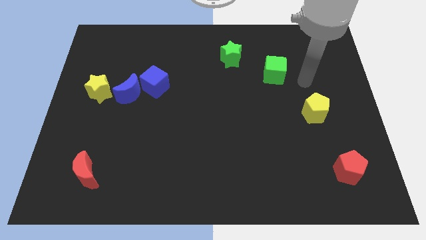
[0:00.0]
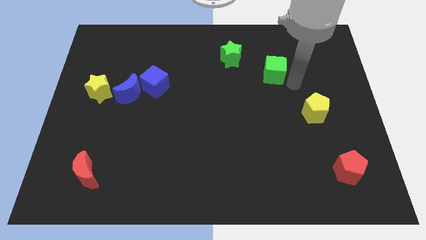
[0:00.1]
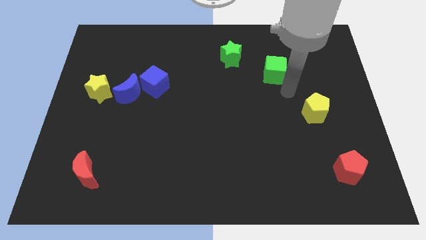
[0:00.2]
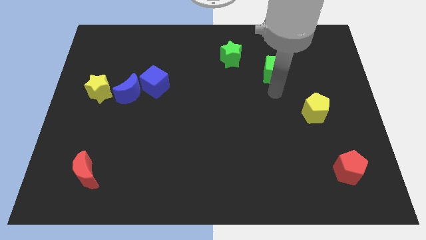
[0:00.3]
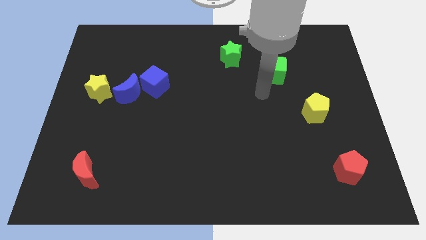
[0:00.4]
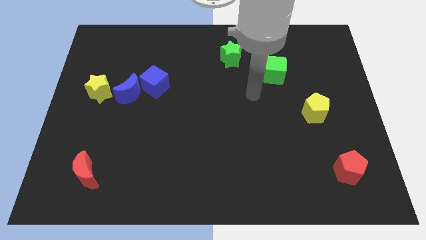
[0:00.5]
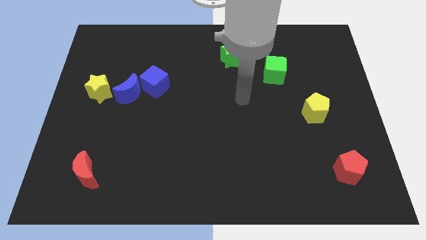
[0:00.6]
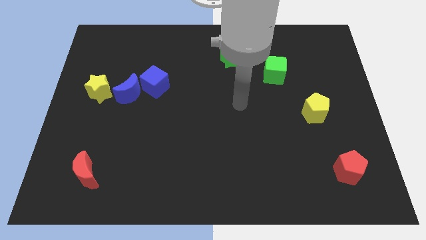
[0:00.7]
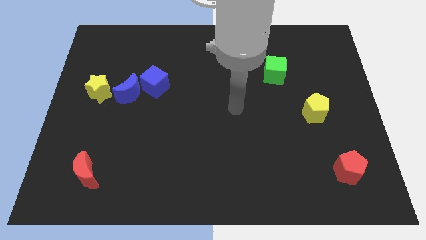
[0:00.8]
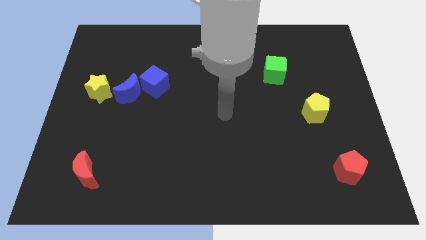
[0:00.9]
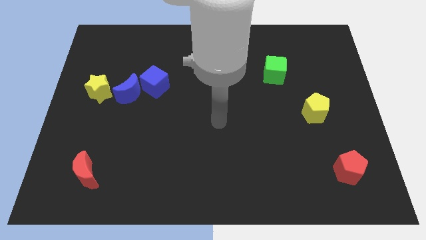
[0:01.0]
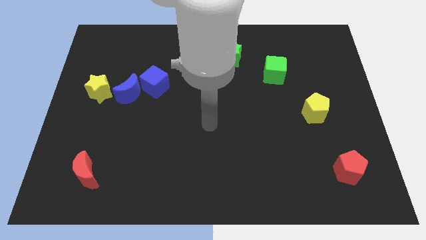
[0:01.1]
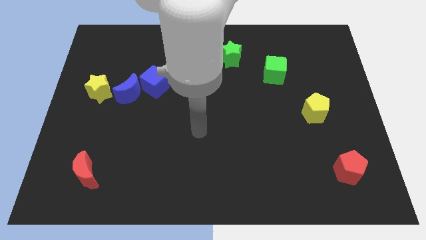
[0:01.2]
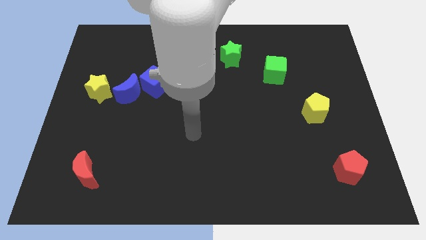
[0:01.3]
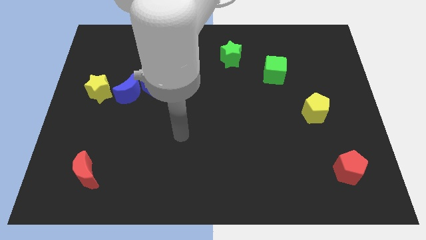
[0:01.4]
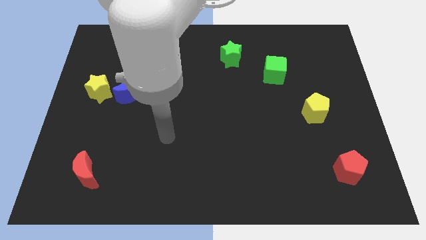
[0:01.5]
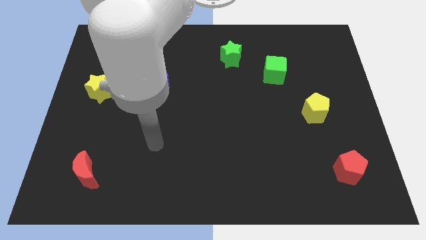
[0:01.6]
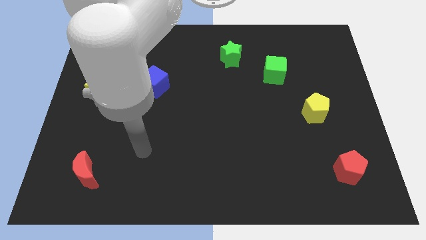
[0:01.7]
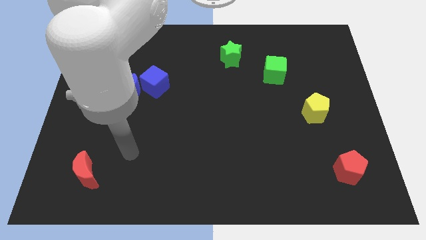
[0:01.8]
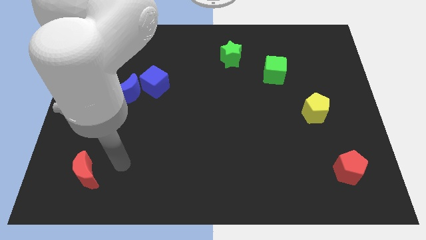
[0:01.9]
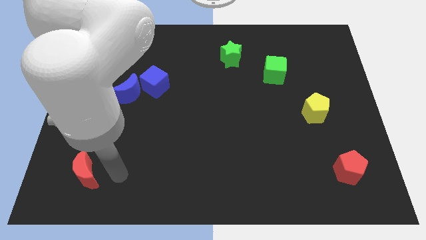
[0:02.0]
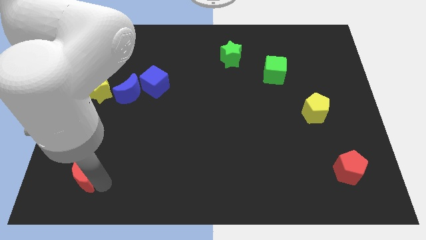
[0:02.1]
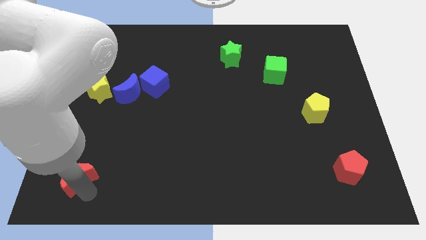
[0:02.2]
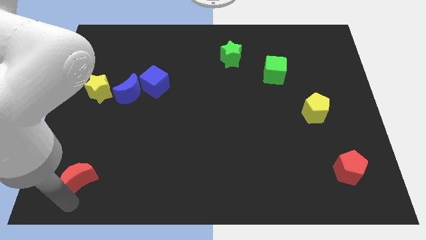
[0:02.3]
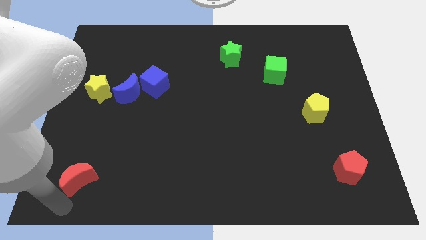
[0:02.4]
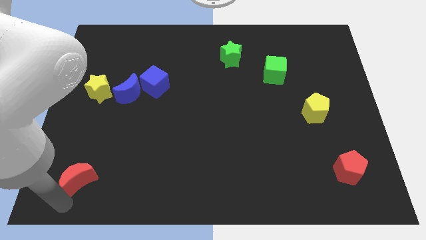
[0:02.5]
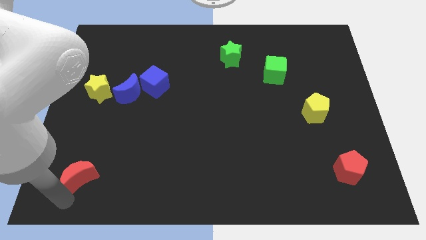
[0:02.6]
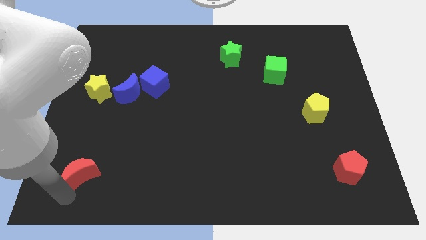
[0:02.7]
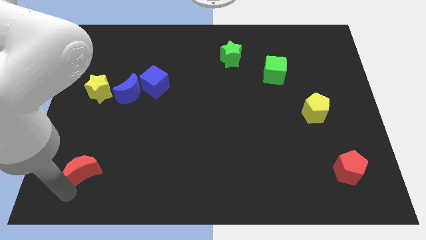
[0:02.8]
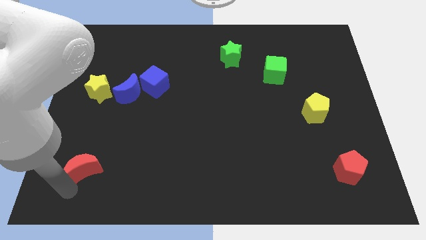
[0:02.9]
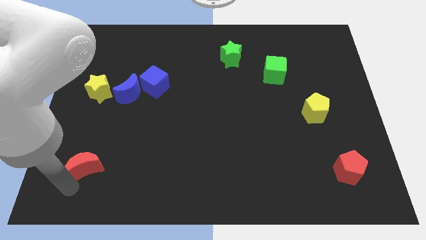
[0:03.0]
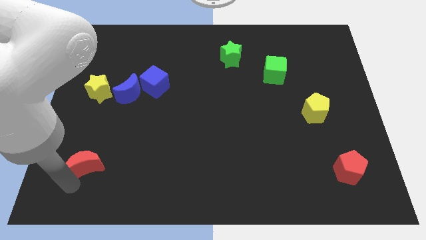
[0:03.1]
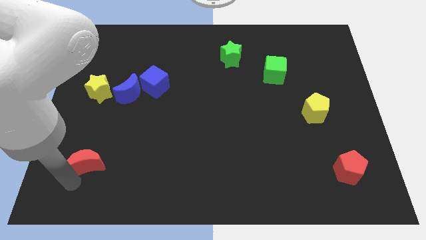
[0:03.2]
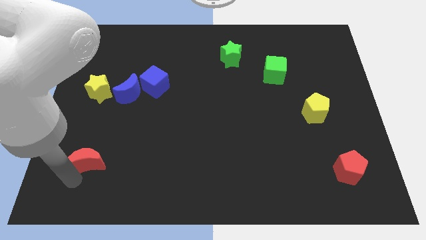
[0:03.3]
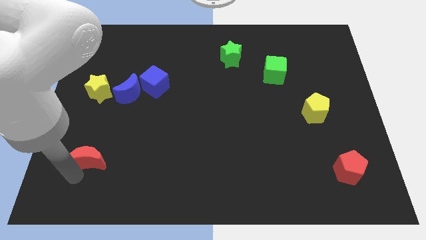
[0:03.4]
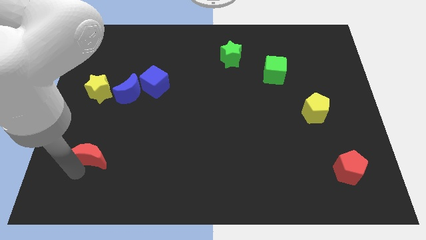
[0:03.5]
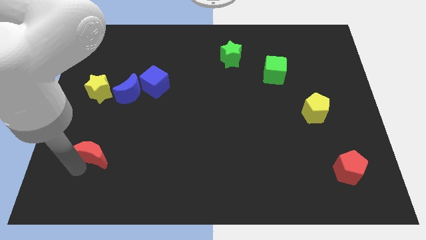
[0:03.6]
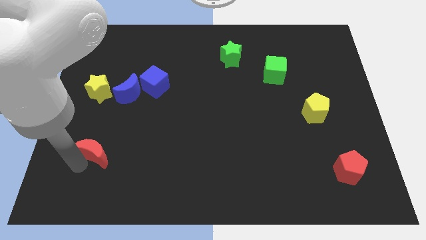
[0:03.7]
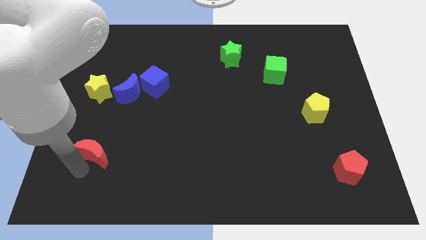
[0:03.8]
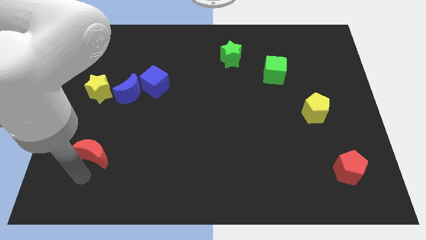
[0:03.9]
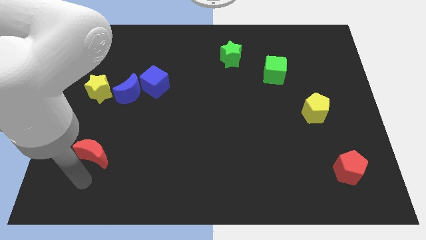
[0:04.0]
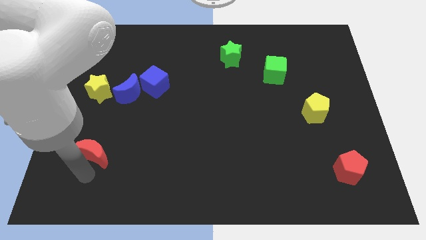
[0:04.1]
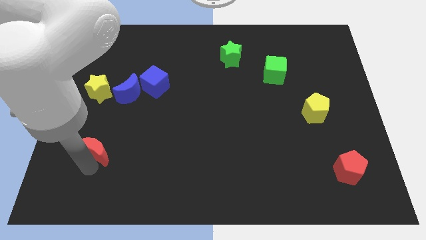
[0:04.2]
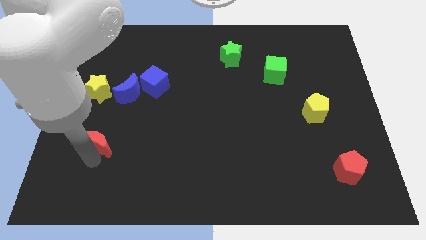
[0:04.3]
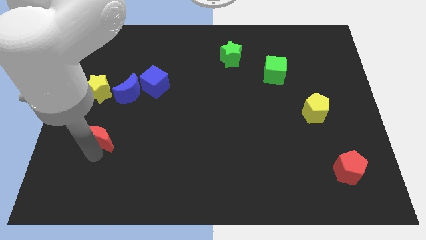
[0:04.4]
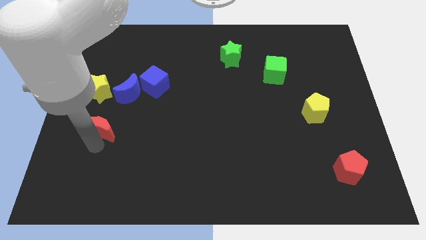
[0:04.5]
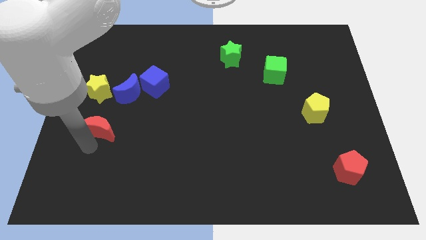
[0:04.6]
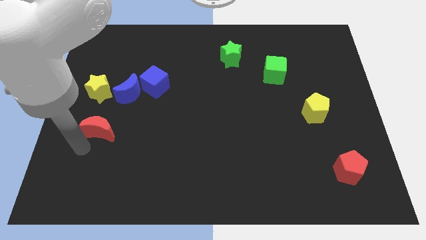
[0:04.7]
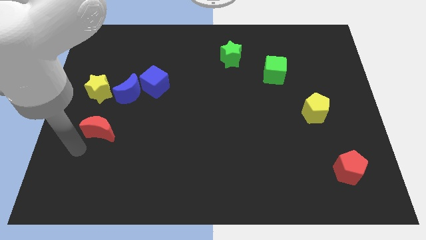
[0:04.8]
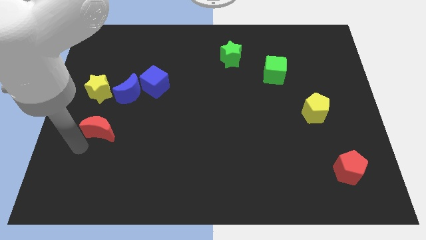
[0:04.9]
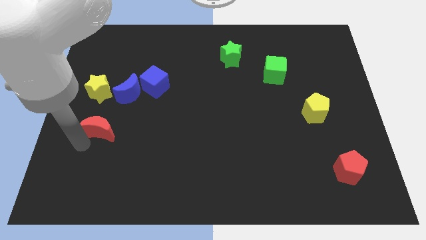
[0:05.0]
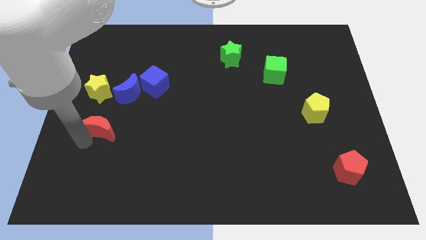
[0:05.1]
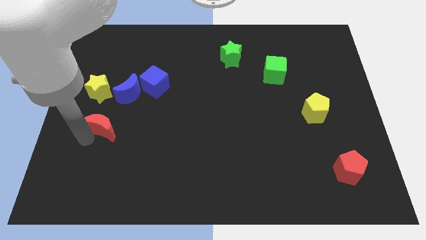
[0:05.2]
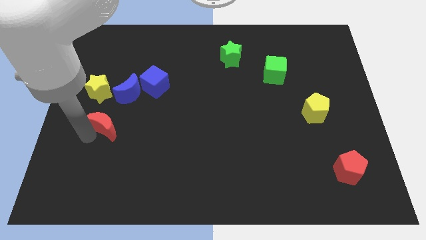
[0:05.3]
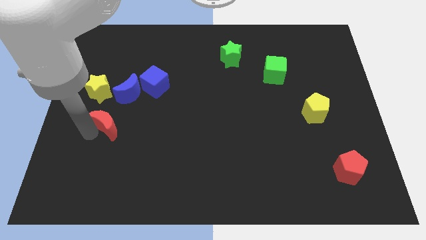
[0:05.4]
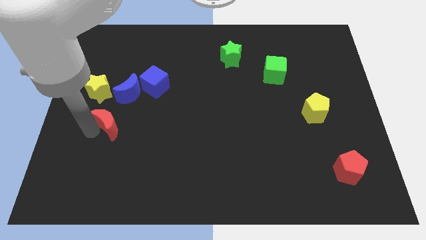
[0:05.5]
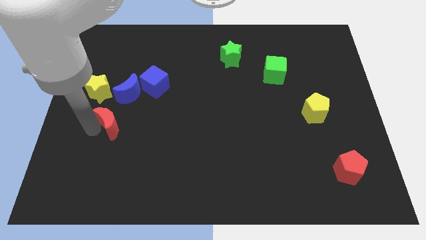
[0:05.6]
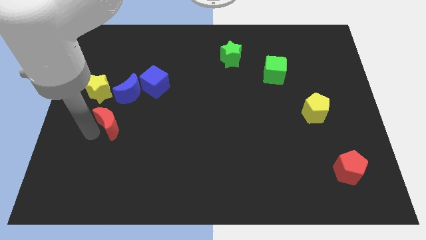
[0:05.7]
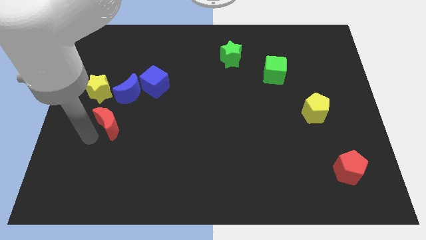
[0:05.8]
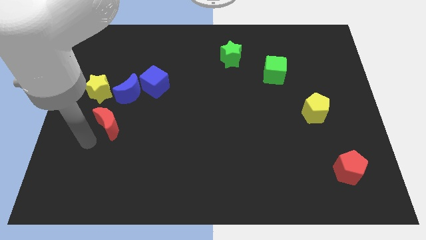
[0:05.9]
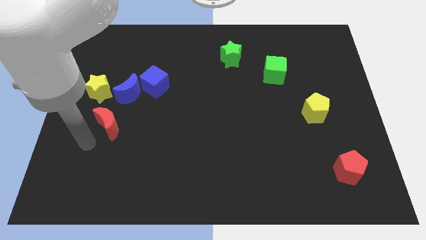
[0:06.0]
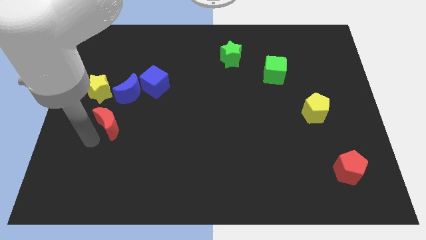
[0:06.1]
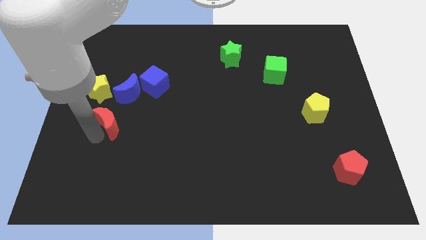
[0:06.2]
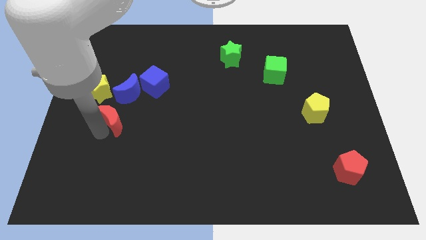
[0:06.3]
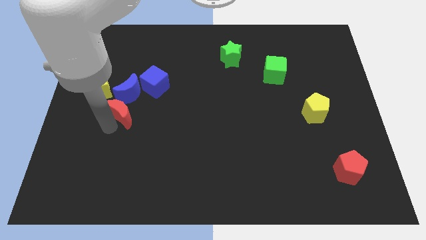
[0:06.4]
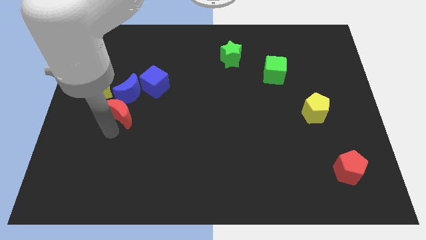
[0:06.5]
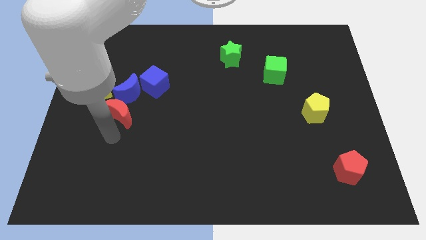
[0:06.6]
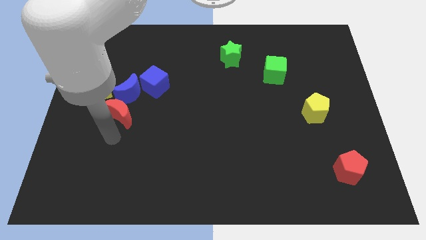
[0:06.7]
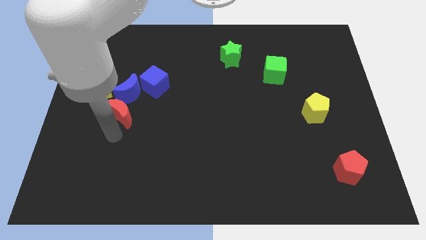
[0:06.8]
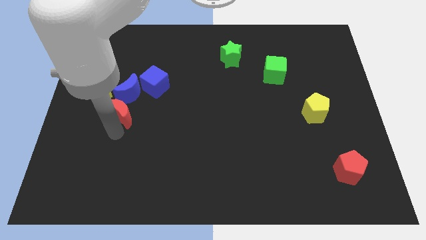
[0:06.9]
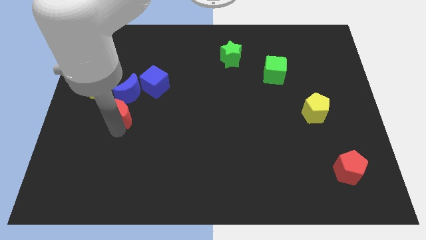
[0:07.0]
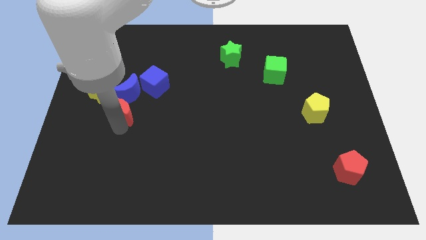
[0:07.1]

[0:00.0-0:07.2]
slide the red moon next to the blue moon
